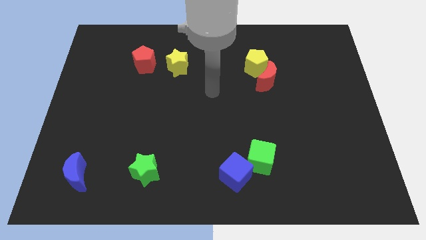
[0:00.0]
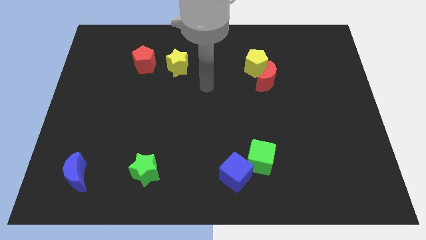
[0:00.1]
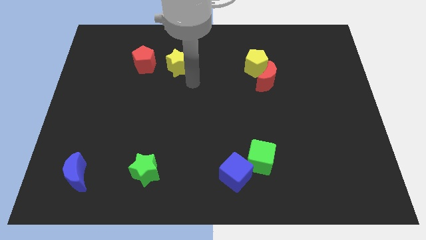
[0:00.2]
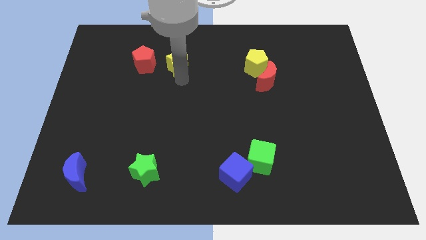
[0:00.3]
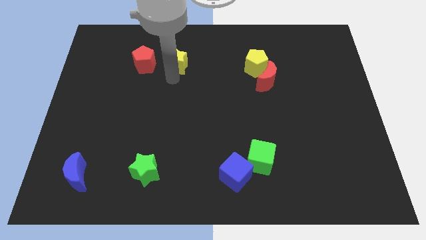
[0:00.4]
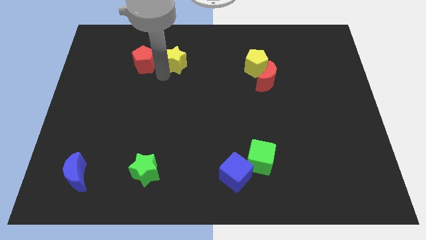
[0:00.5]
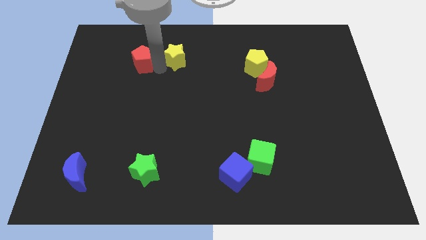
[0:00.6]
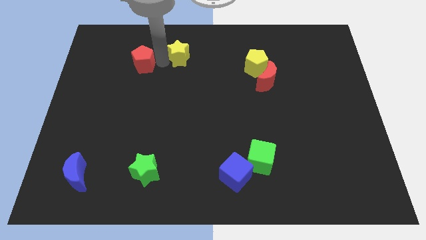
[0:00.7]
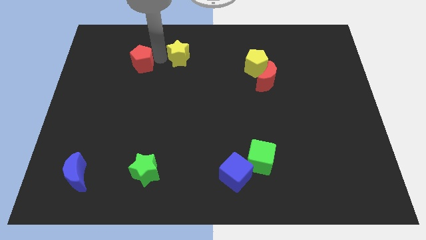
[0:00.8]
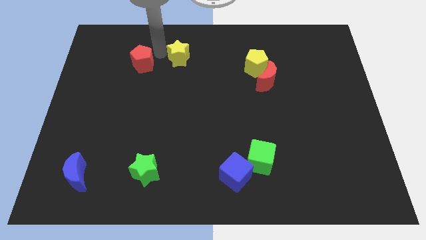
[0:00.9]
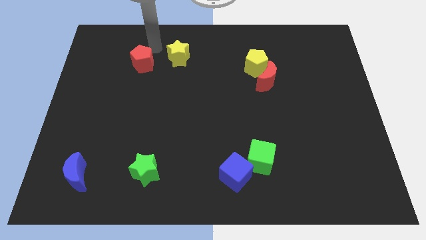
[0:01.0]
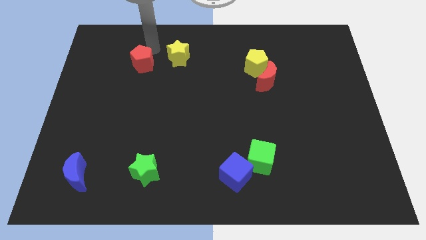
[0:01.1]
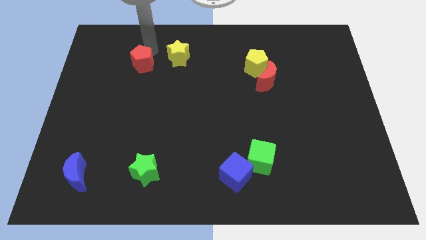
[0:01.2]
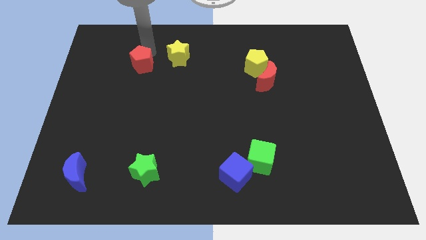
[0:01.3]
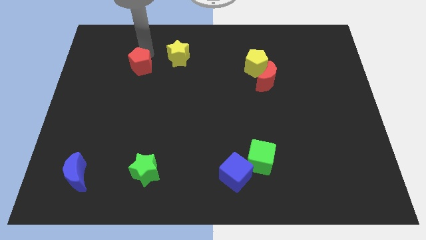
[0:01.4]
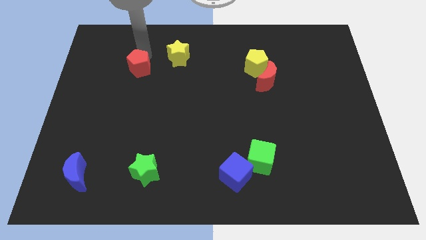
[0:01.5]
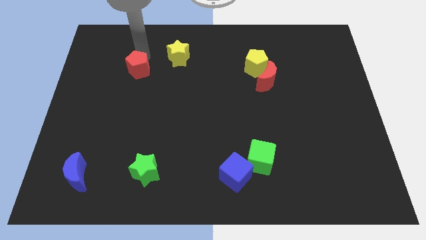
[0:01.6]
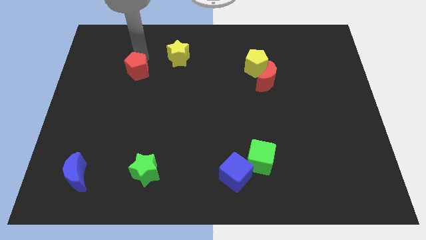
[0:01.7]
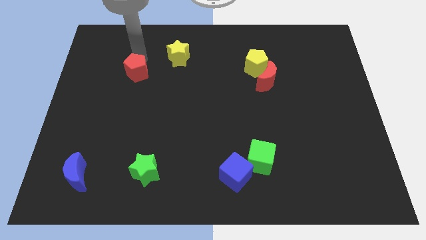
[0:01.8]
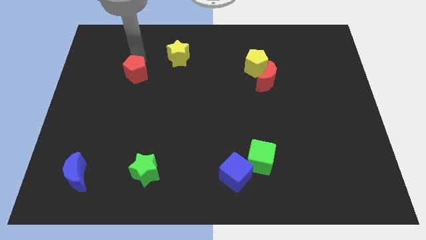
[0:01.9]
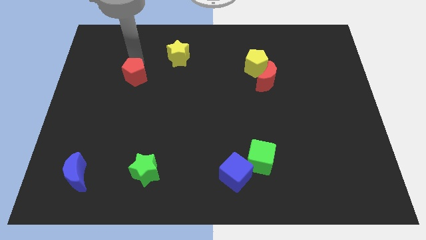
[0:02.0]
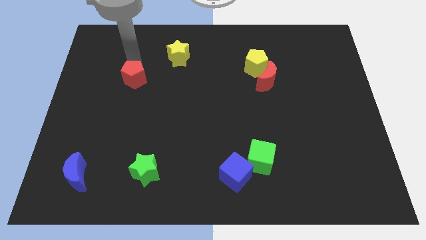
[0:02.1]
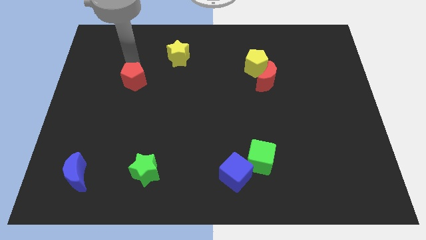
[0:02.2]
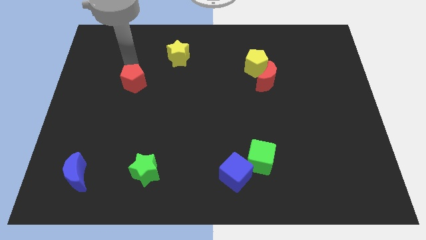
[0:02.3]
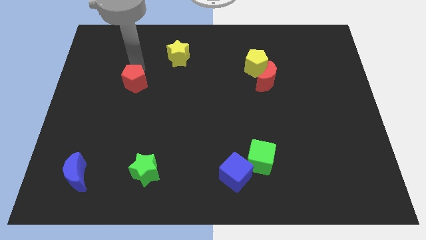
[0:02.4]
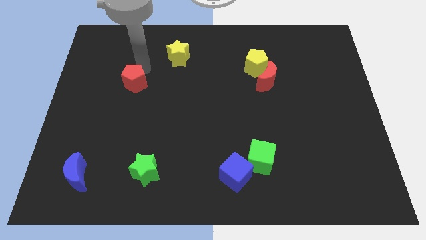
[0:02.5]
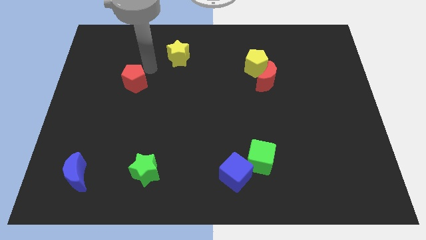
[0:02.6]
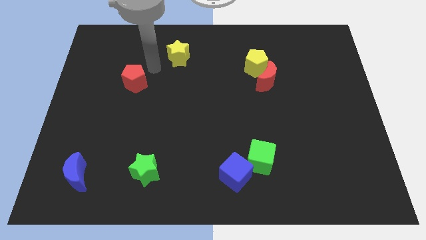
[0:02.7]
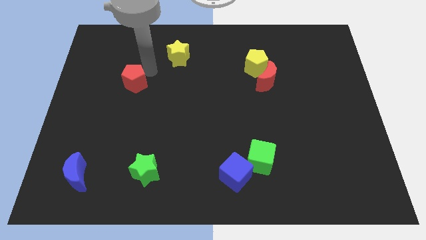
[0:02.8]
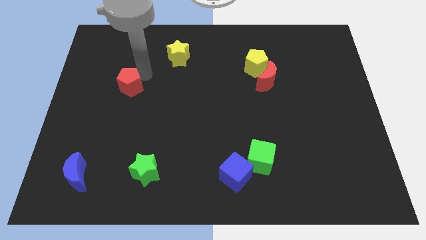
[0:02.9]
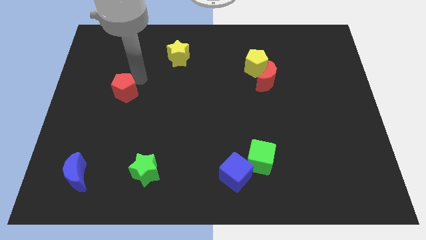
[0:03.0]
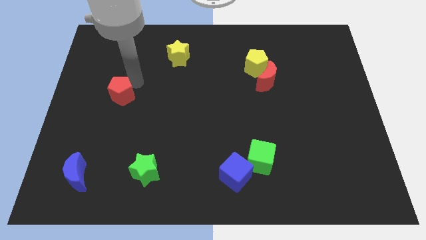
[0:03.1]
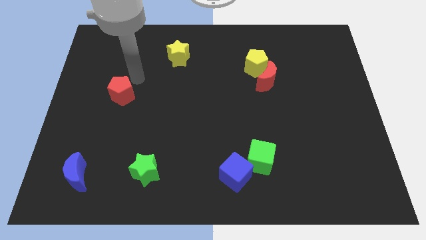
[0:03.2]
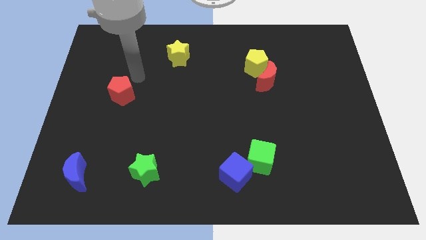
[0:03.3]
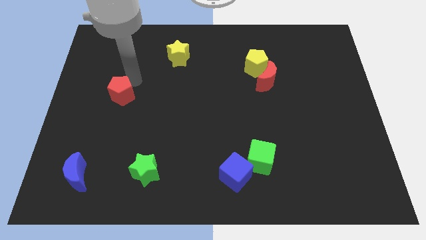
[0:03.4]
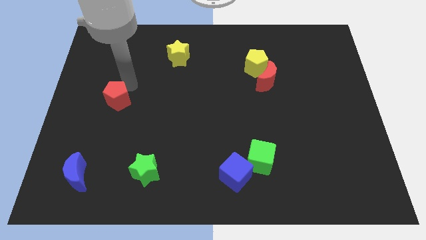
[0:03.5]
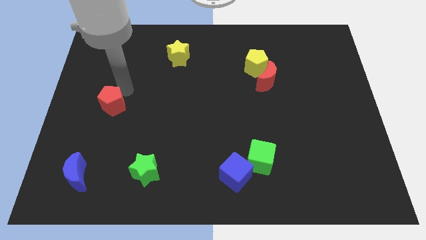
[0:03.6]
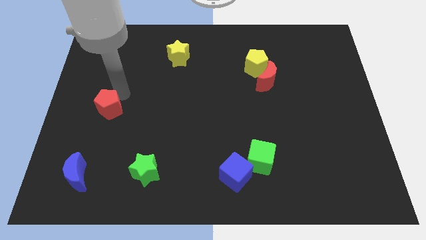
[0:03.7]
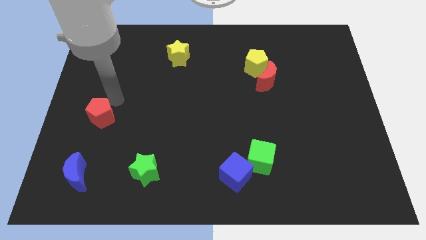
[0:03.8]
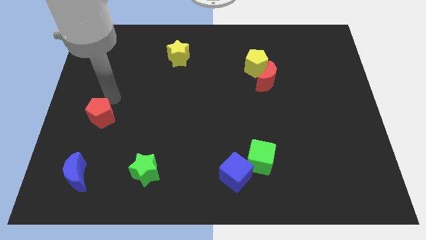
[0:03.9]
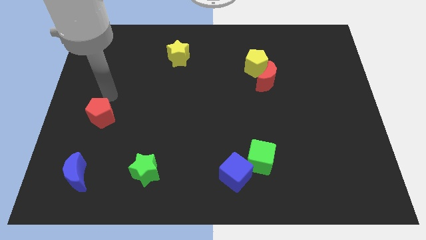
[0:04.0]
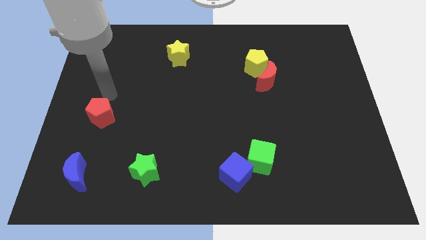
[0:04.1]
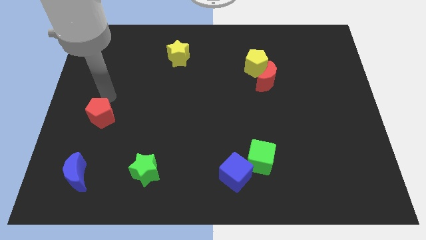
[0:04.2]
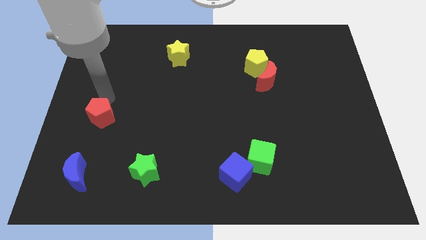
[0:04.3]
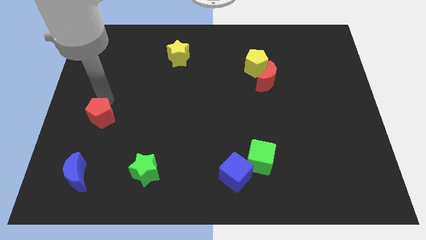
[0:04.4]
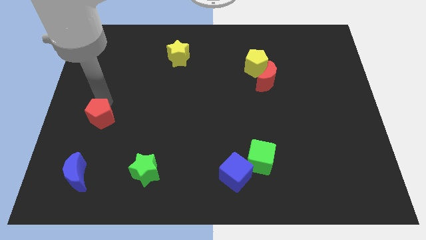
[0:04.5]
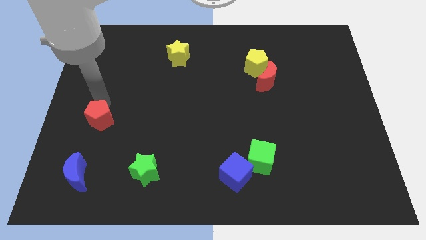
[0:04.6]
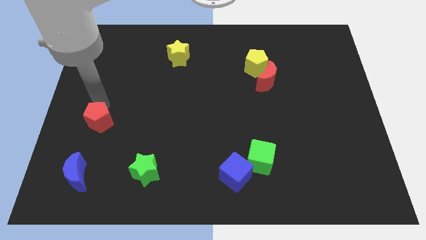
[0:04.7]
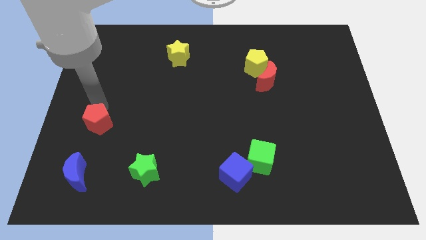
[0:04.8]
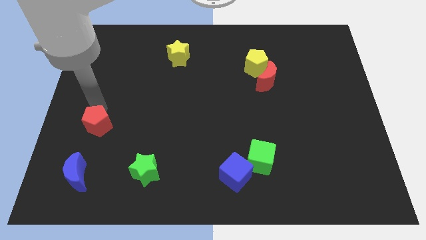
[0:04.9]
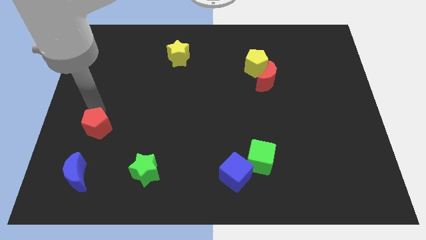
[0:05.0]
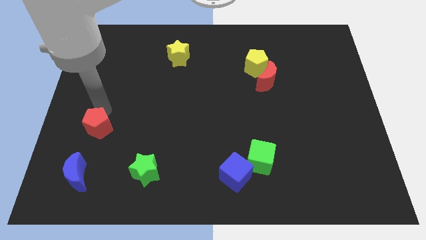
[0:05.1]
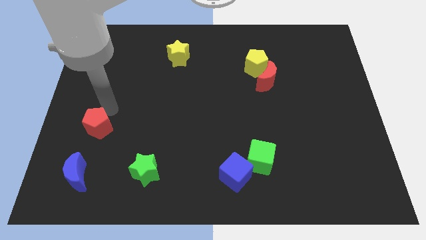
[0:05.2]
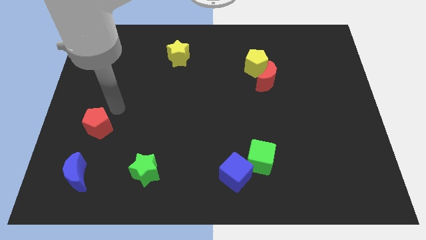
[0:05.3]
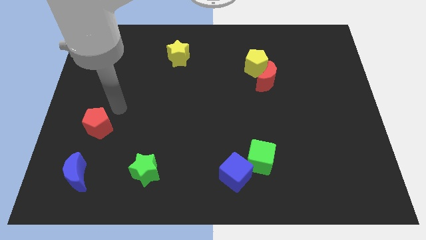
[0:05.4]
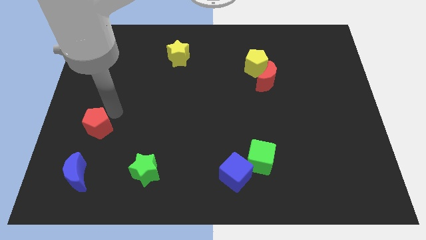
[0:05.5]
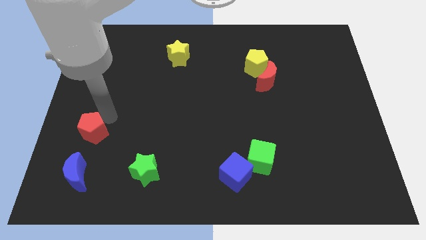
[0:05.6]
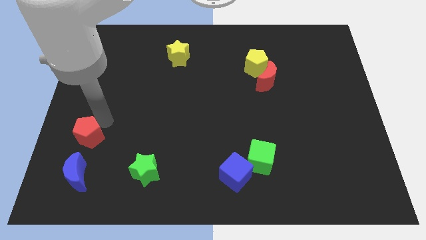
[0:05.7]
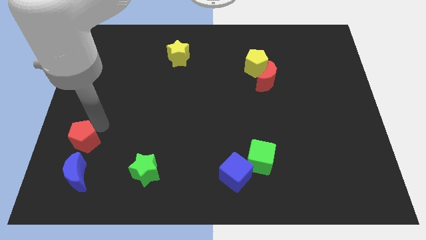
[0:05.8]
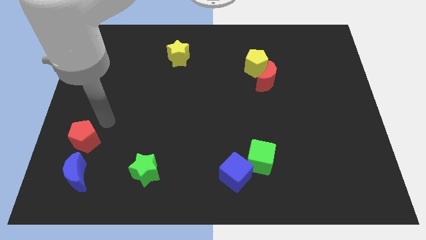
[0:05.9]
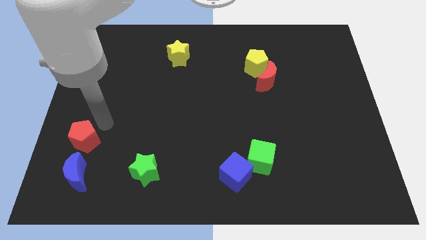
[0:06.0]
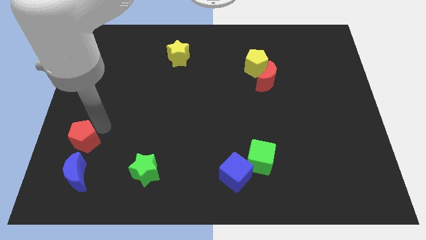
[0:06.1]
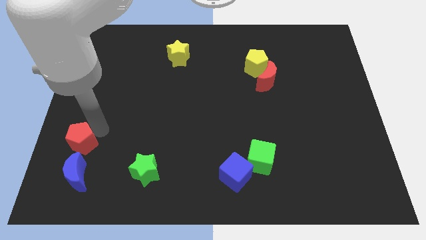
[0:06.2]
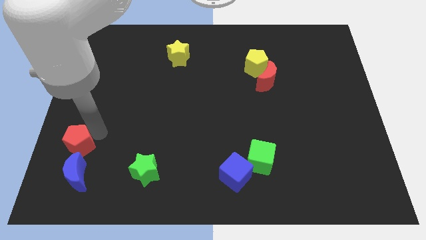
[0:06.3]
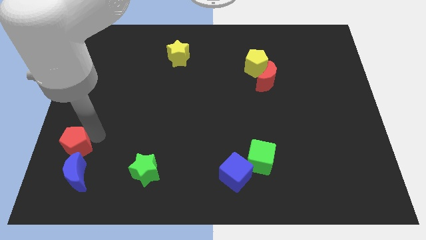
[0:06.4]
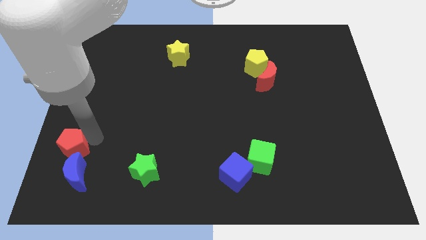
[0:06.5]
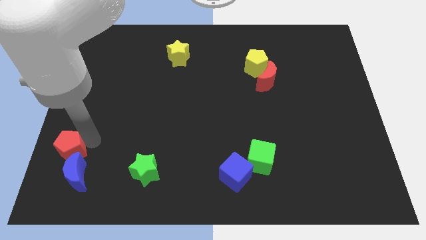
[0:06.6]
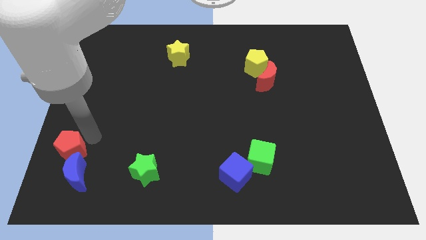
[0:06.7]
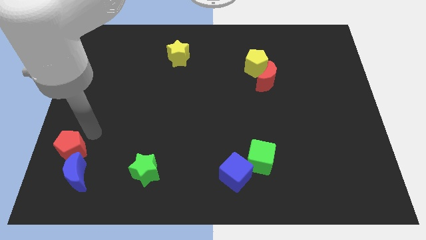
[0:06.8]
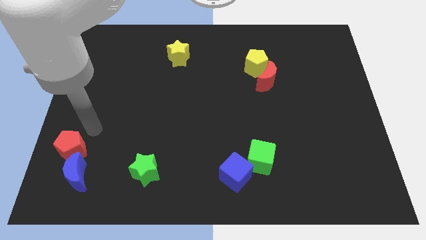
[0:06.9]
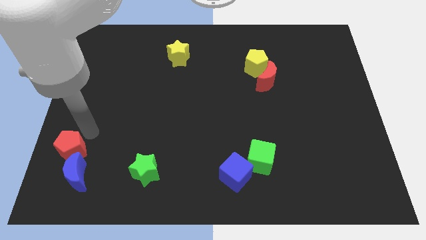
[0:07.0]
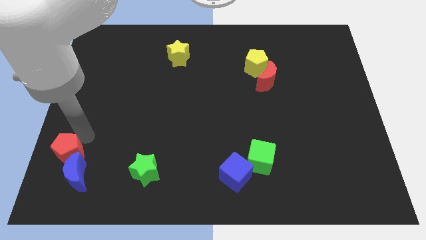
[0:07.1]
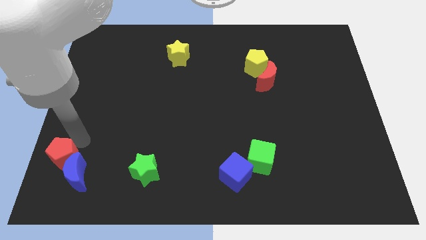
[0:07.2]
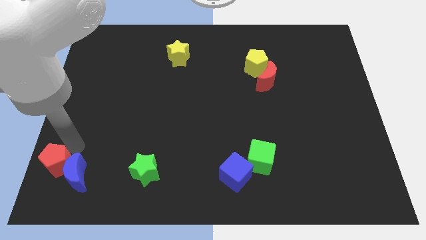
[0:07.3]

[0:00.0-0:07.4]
put the red pentagon to the bottom left
